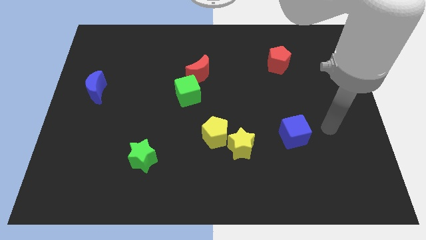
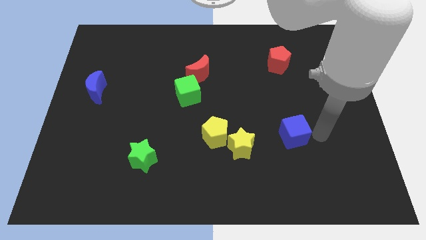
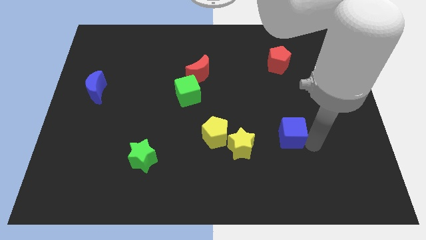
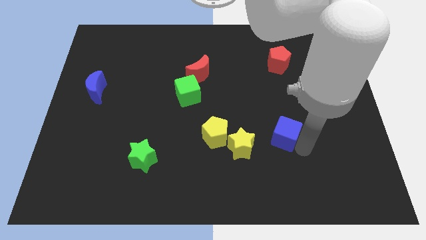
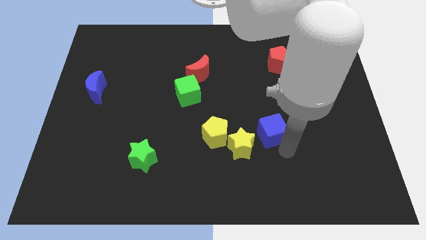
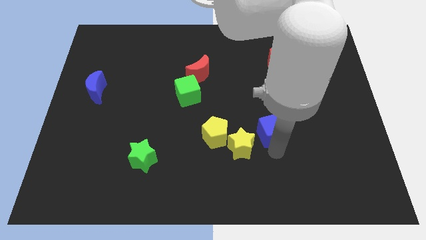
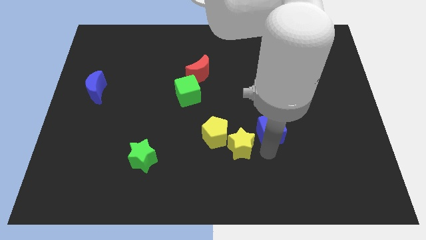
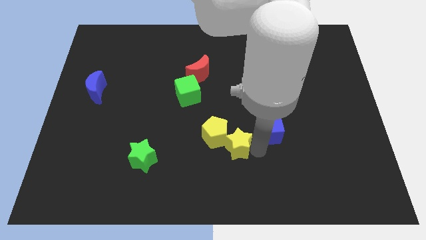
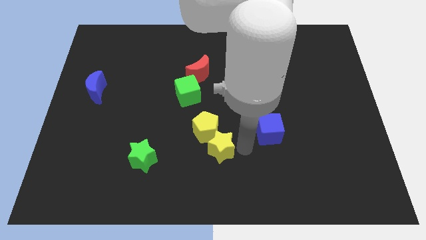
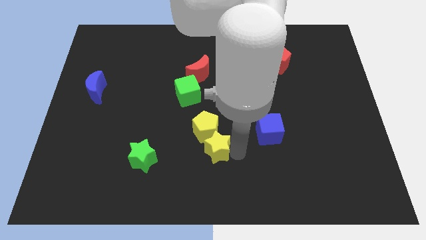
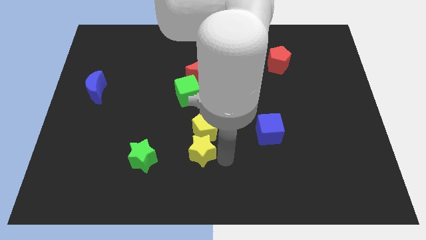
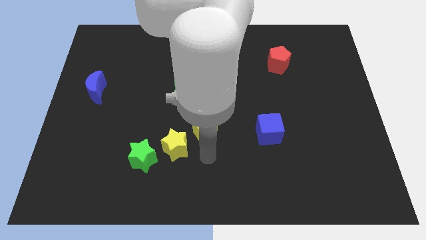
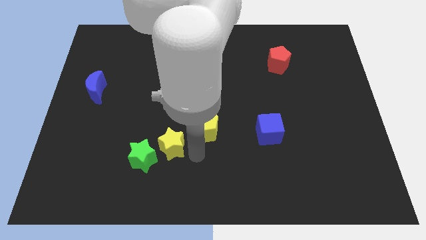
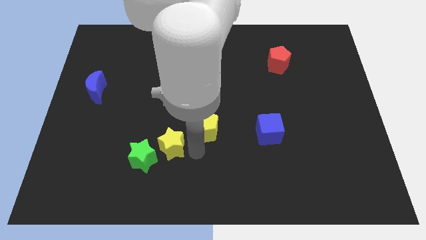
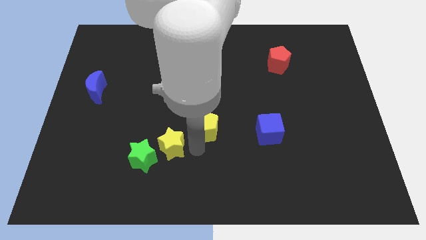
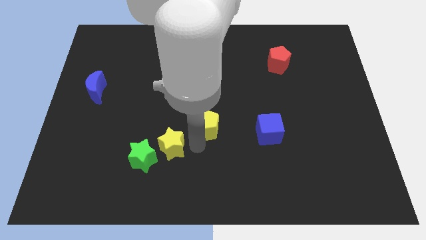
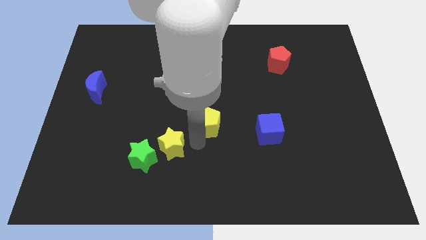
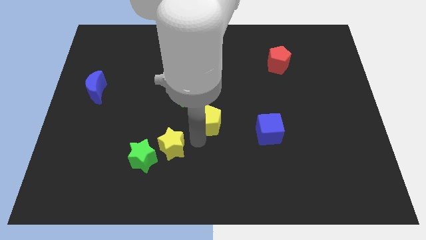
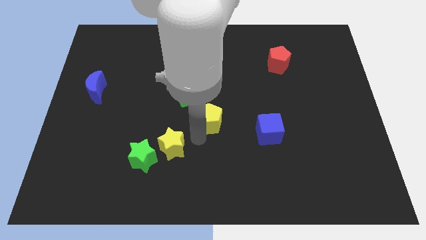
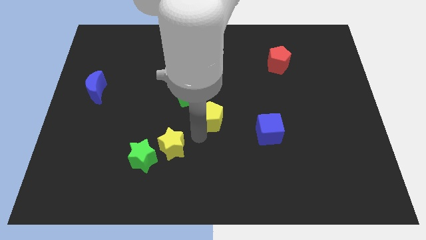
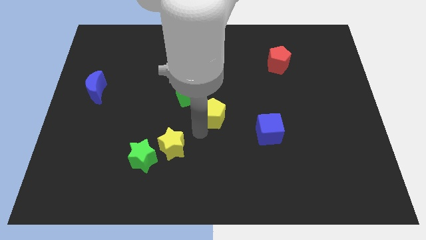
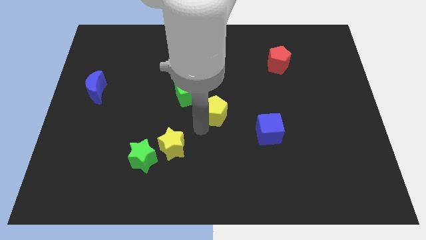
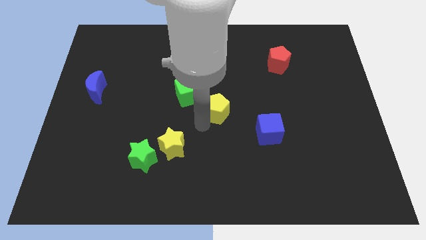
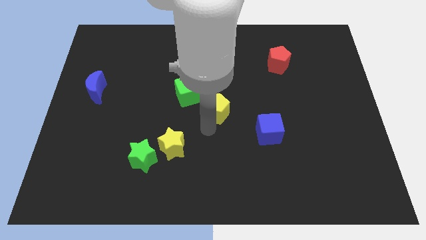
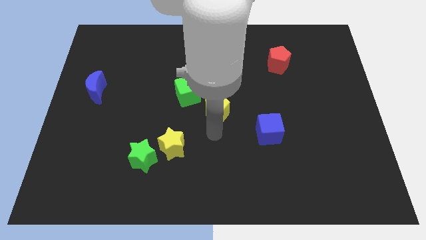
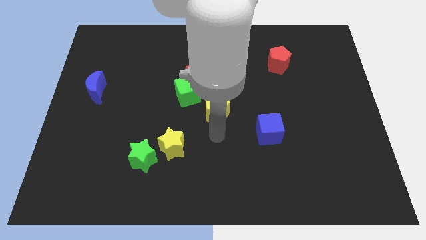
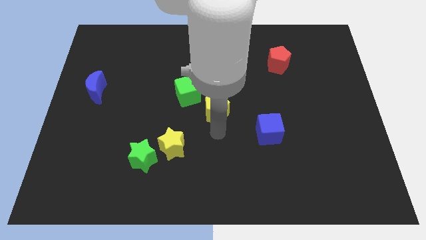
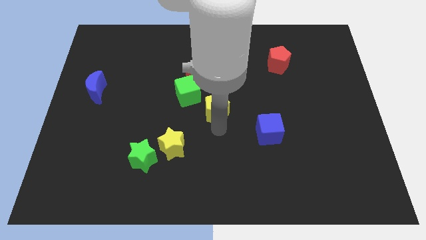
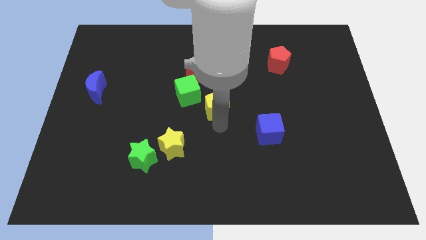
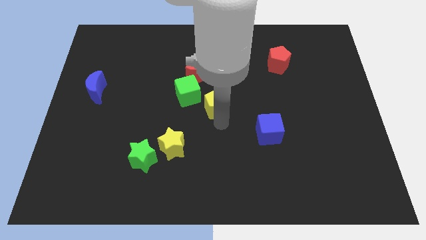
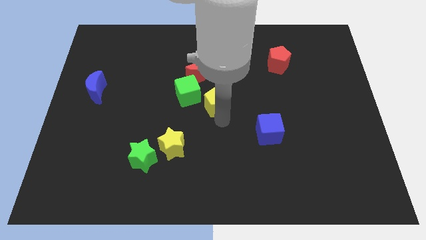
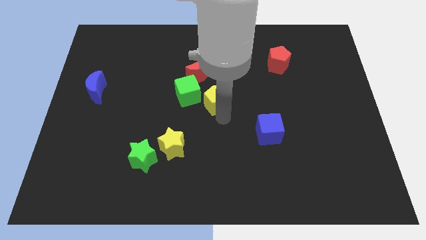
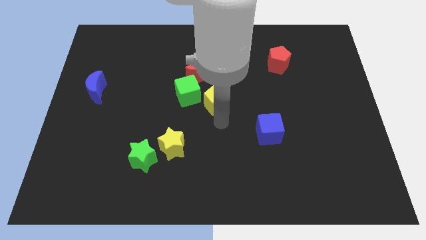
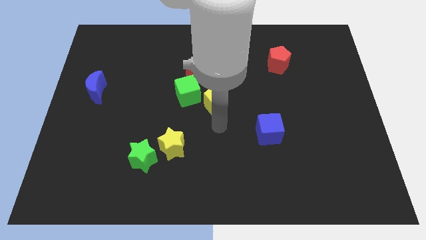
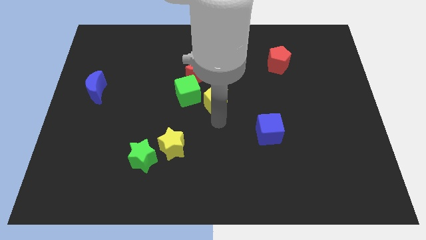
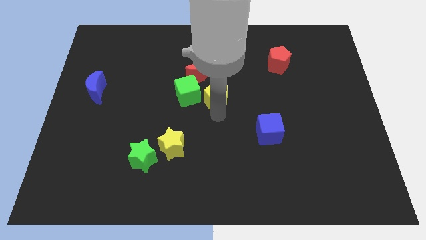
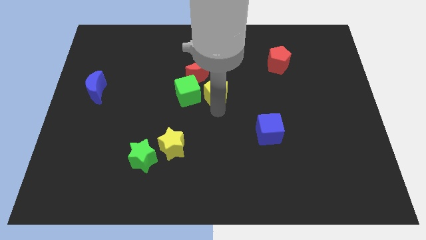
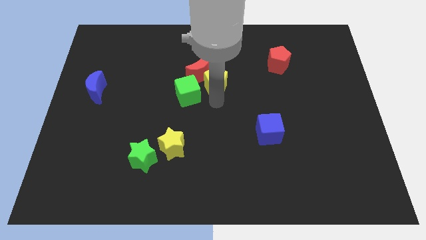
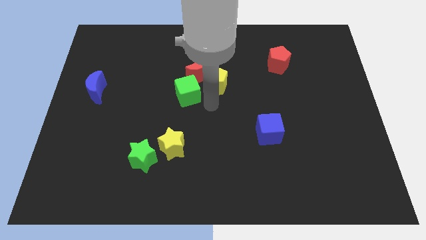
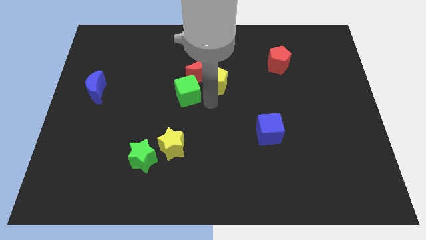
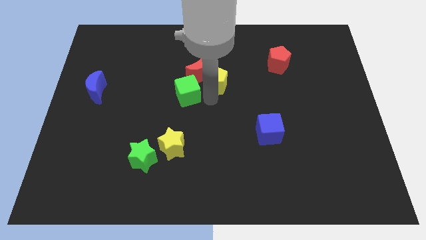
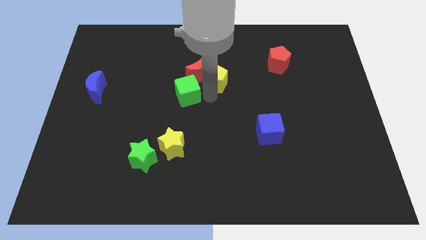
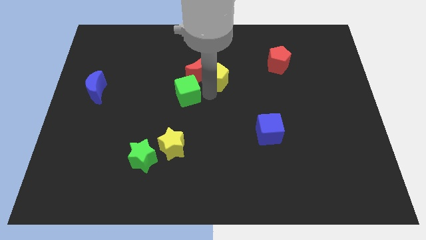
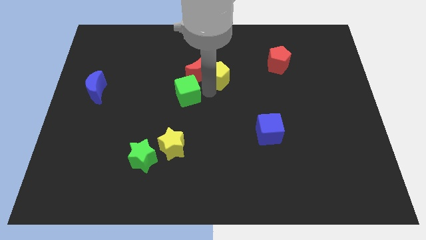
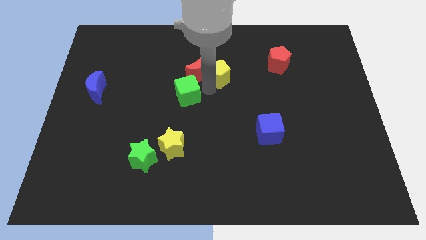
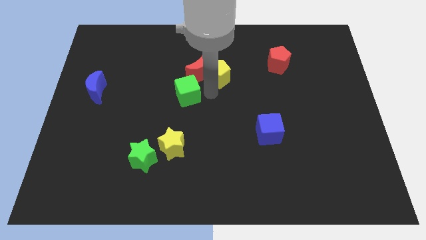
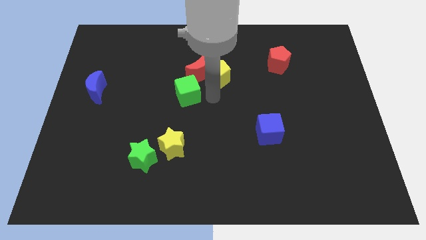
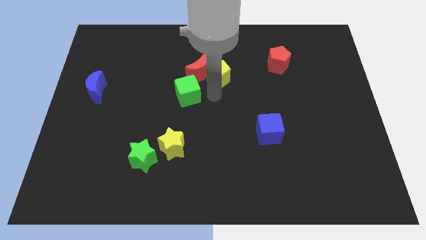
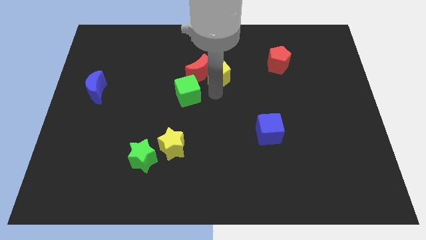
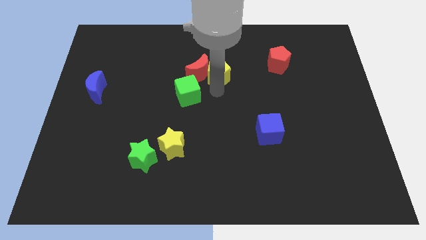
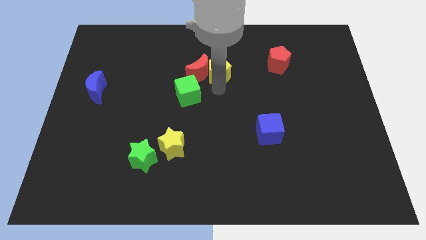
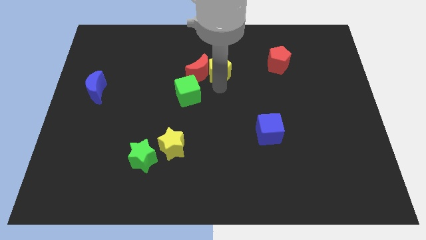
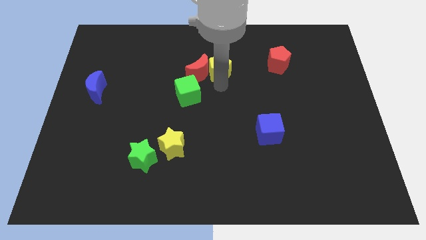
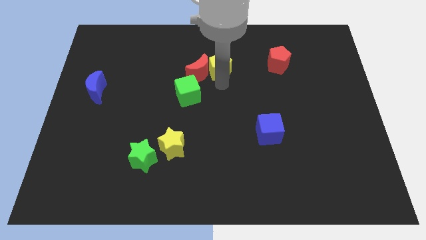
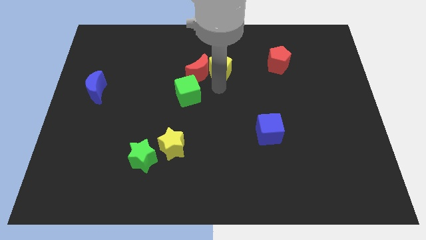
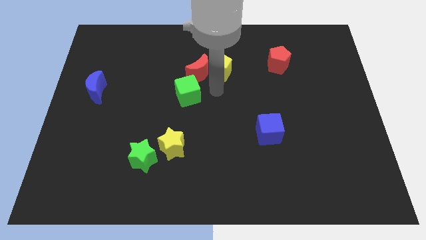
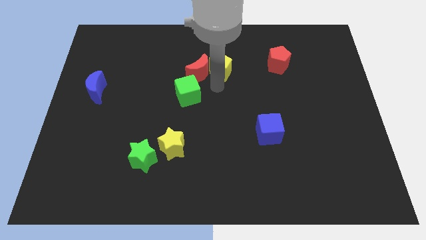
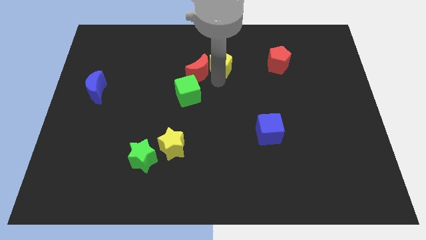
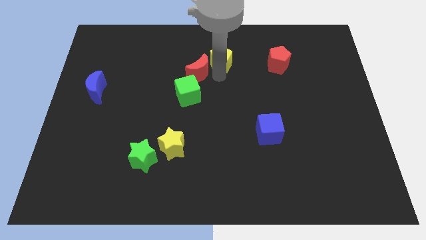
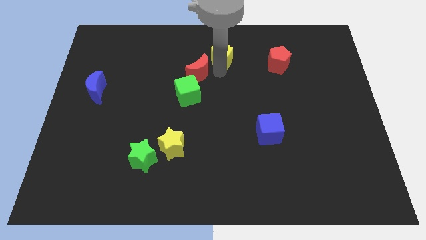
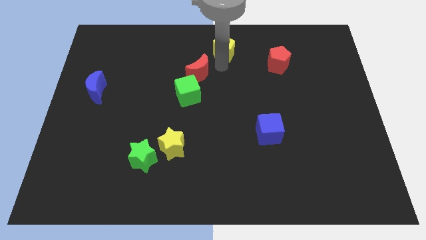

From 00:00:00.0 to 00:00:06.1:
slide the yellow pentagon to the top side

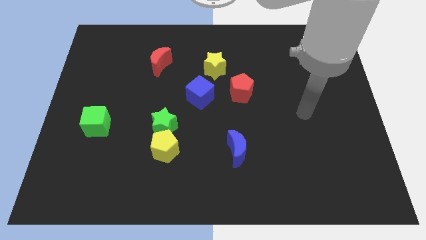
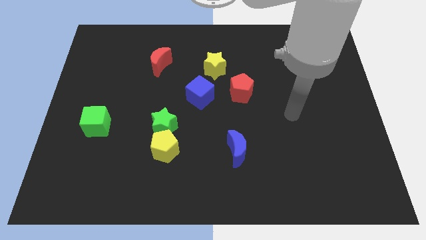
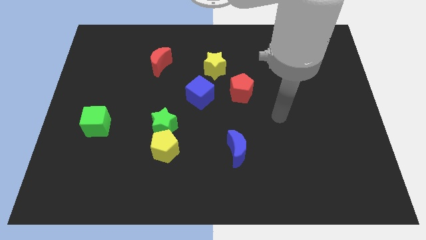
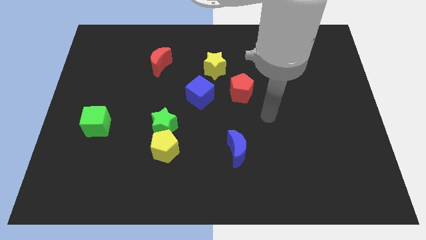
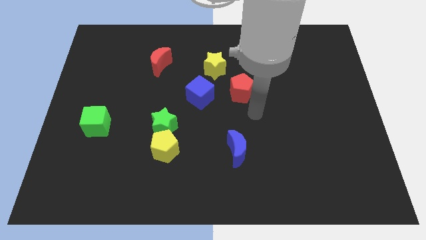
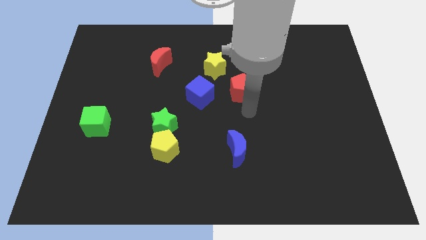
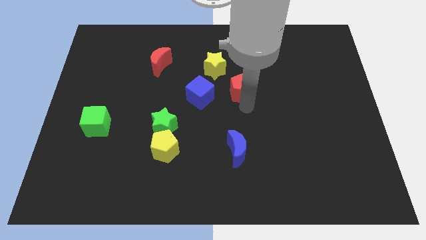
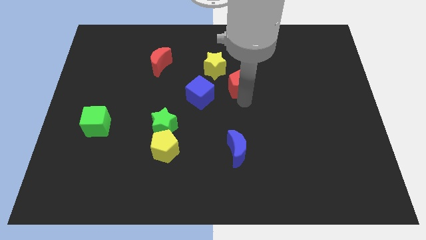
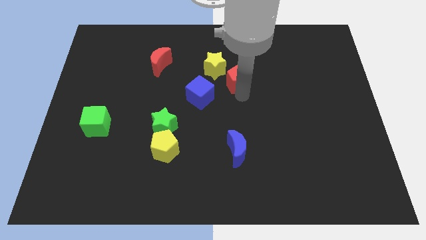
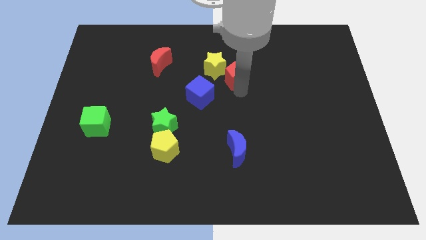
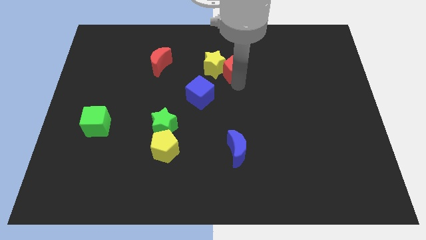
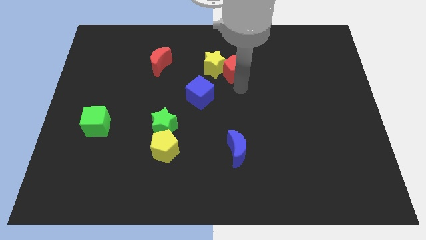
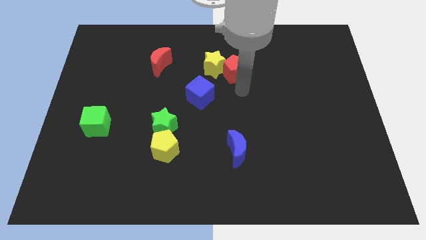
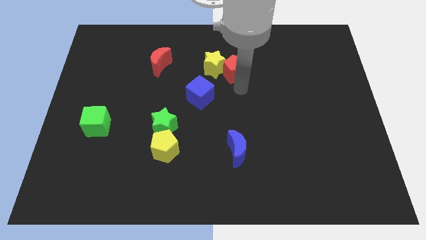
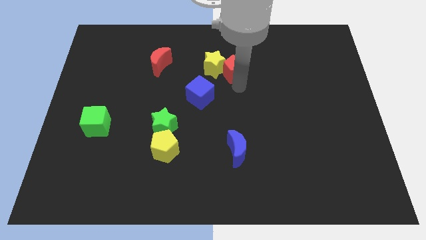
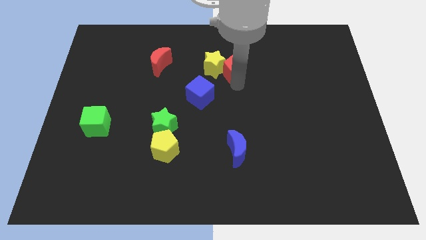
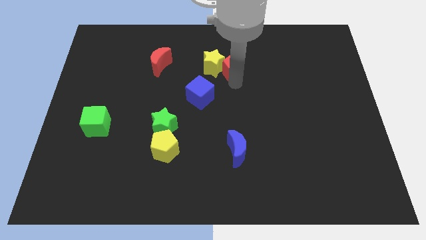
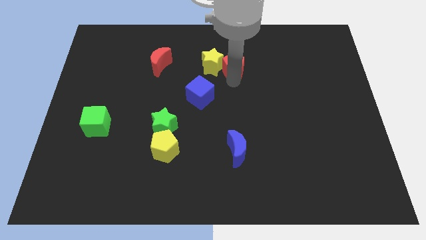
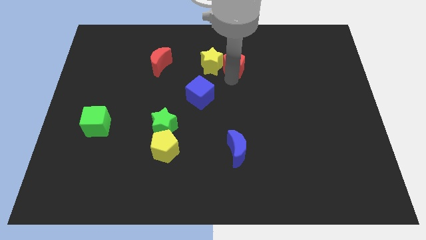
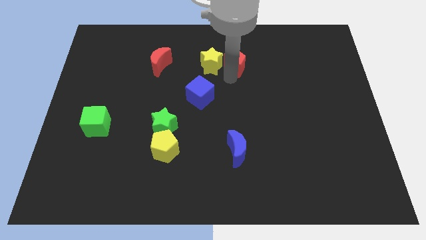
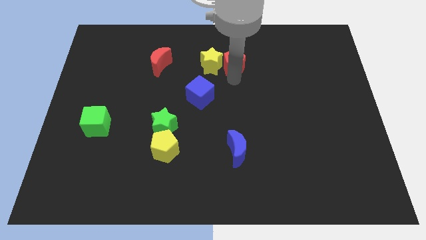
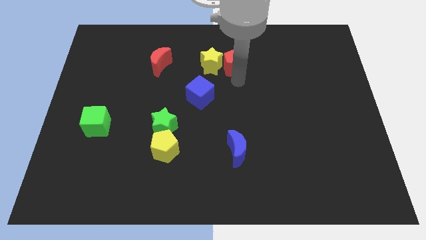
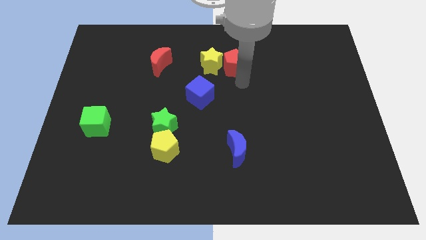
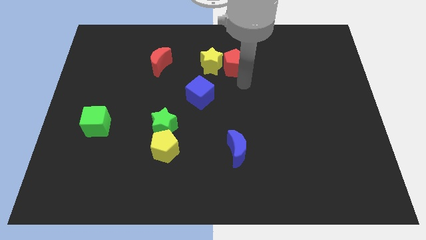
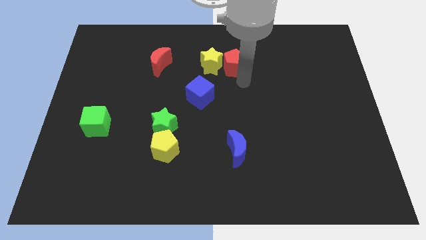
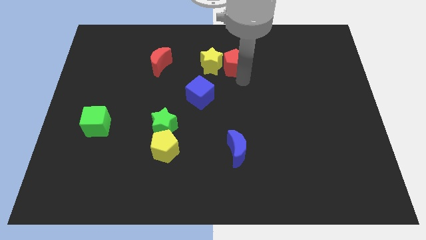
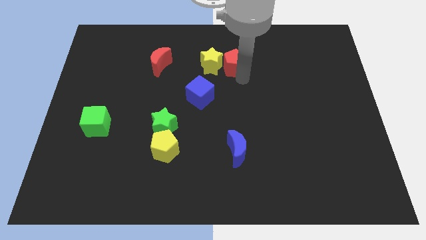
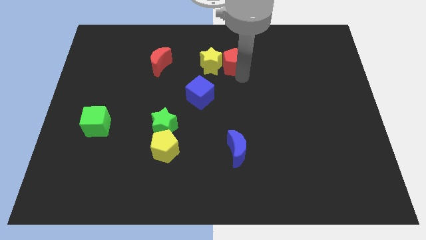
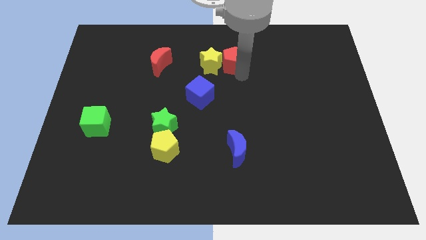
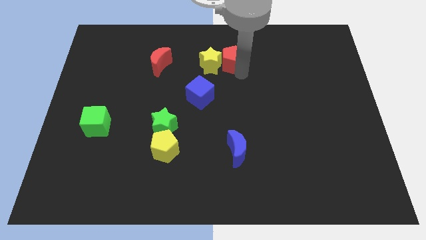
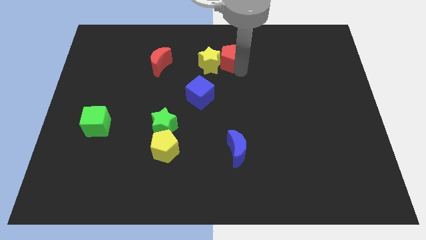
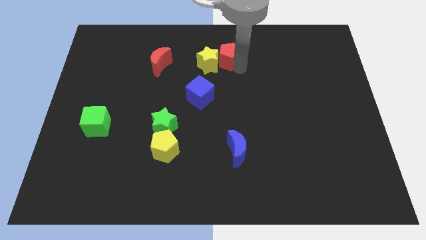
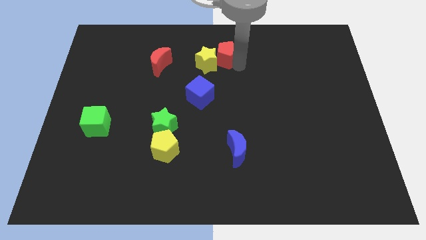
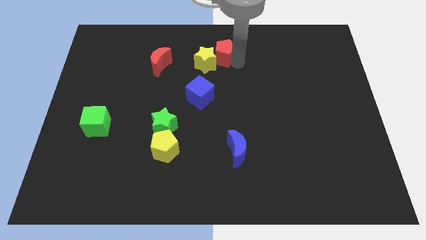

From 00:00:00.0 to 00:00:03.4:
move the red pentagon to the towards your base
